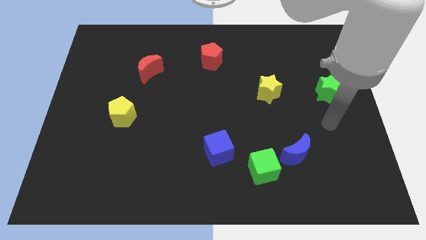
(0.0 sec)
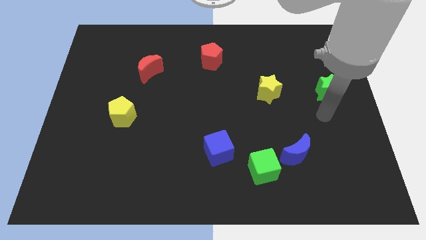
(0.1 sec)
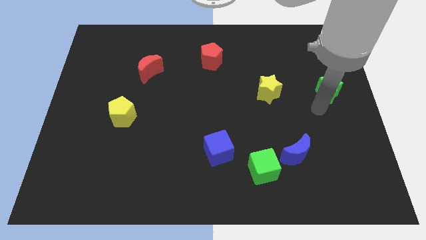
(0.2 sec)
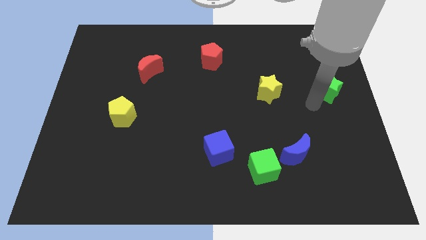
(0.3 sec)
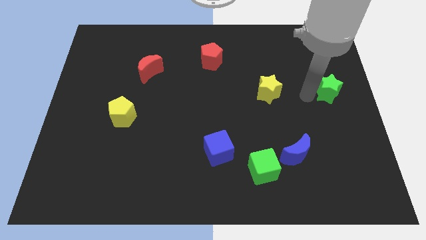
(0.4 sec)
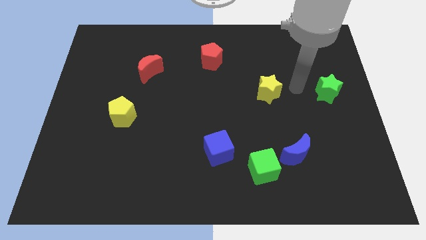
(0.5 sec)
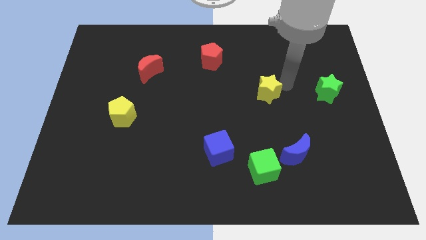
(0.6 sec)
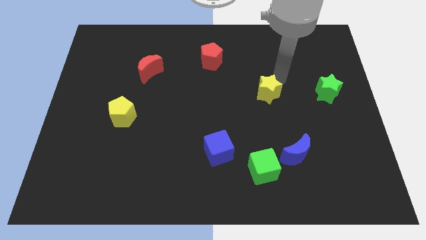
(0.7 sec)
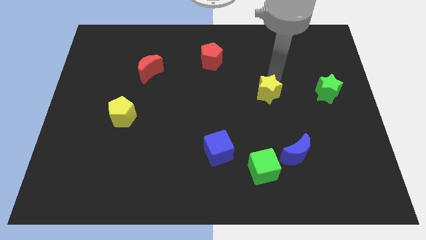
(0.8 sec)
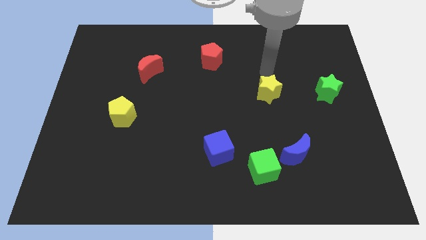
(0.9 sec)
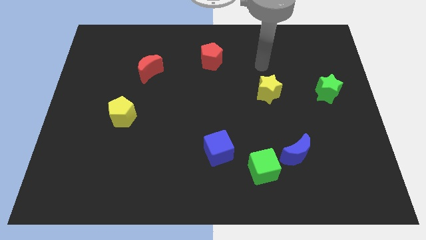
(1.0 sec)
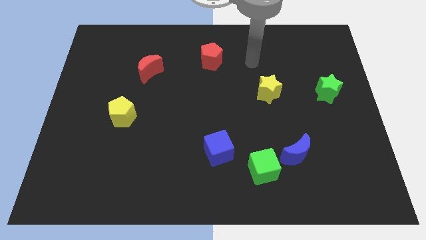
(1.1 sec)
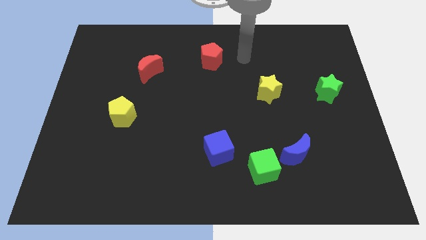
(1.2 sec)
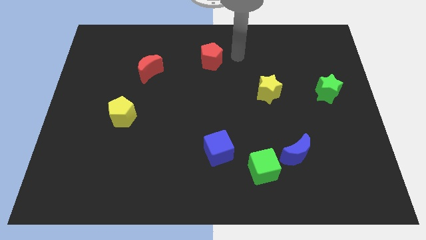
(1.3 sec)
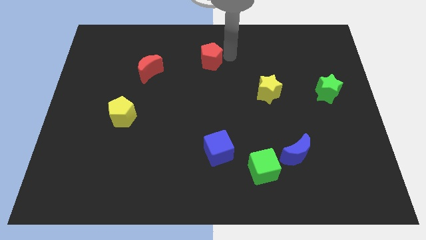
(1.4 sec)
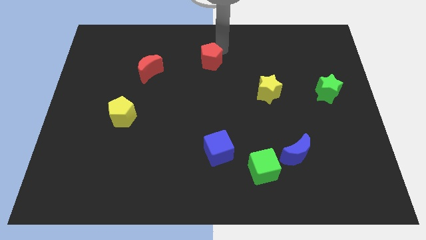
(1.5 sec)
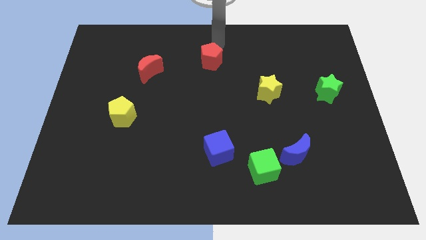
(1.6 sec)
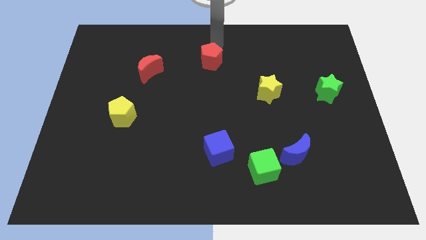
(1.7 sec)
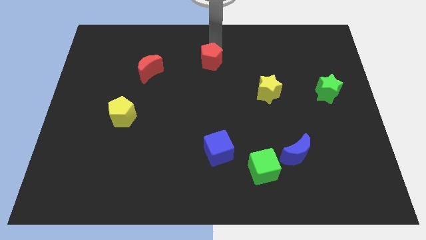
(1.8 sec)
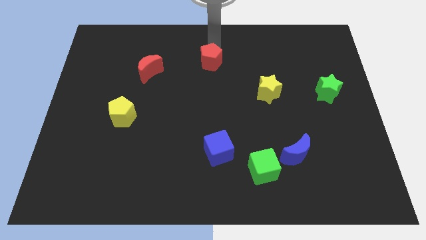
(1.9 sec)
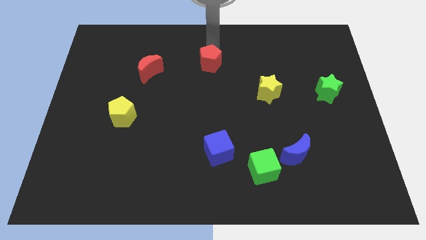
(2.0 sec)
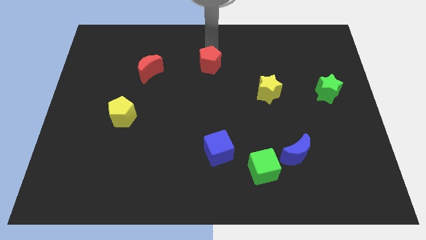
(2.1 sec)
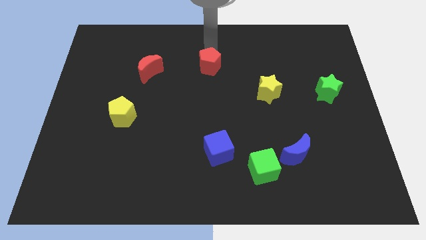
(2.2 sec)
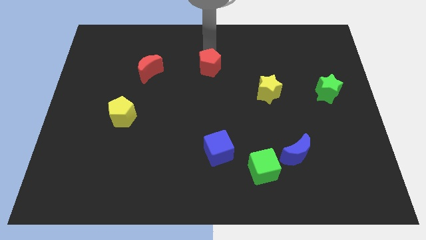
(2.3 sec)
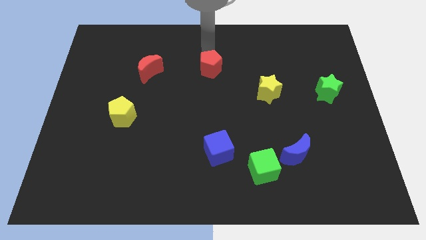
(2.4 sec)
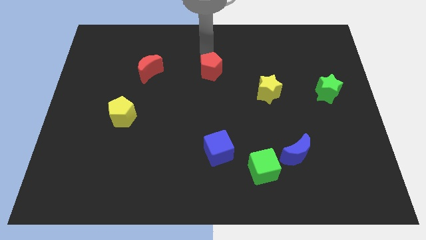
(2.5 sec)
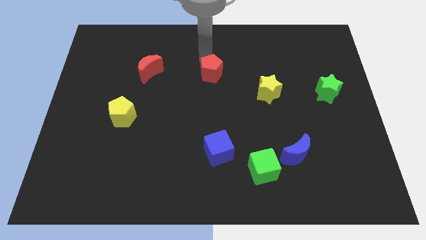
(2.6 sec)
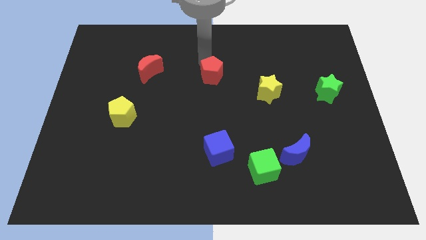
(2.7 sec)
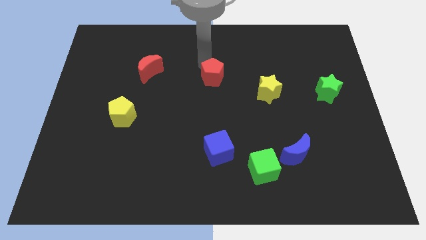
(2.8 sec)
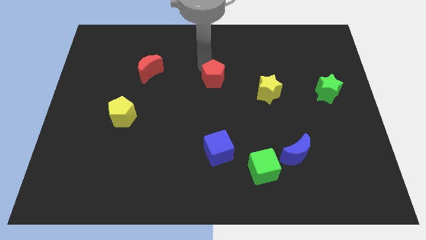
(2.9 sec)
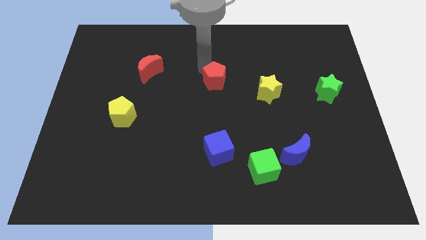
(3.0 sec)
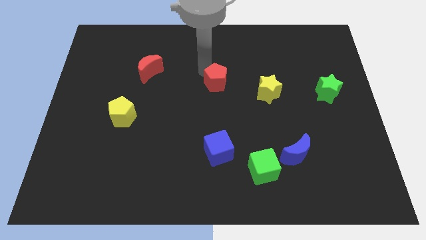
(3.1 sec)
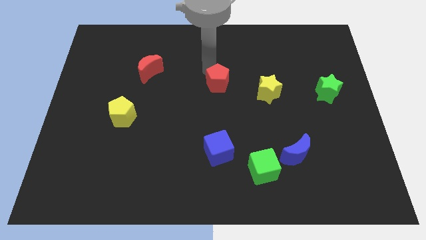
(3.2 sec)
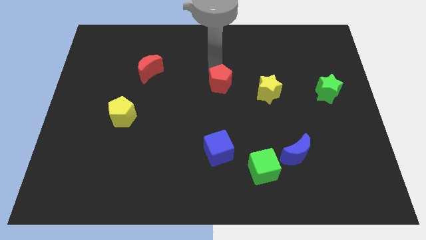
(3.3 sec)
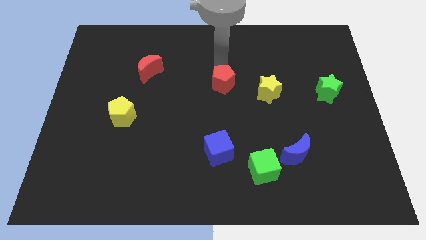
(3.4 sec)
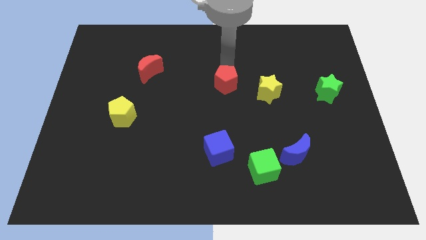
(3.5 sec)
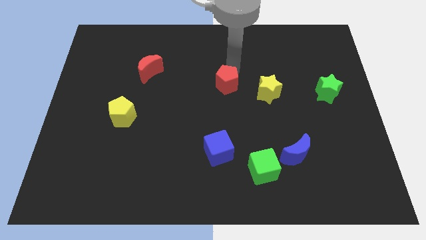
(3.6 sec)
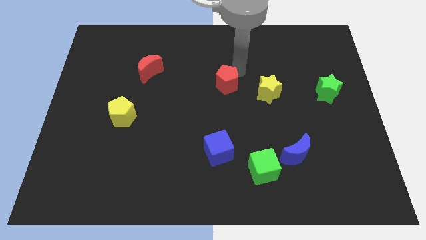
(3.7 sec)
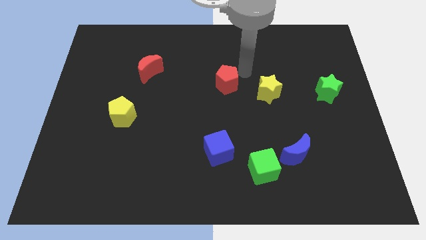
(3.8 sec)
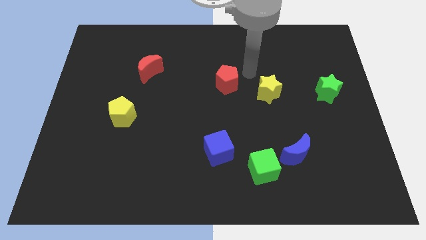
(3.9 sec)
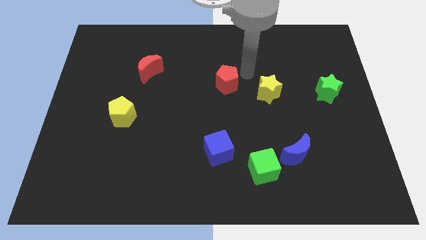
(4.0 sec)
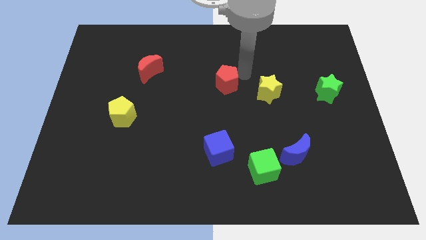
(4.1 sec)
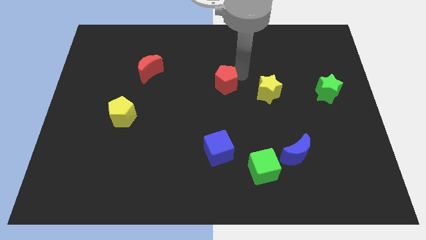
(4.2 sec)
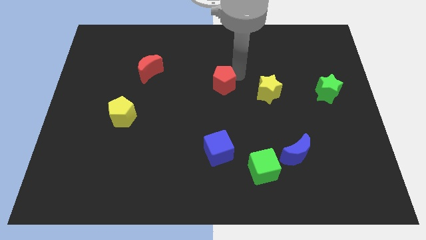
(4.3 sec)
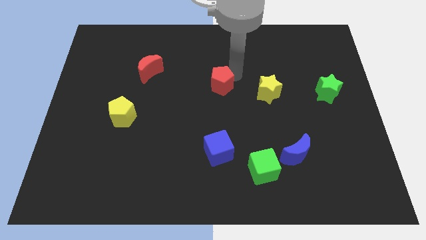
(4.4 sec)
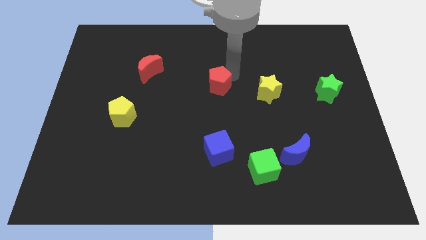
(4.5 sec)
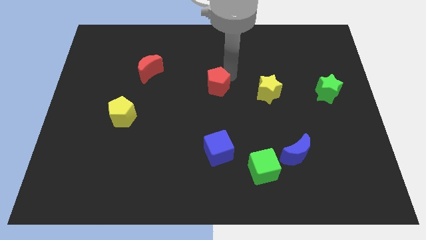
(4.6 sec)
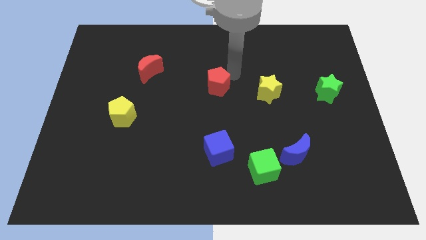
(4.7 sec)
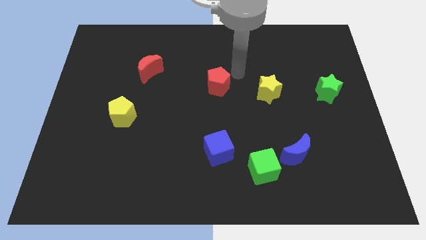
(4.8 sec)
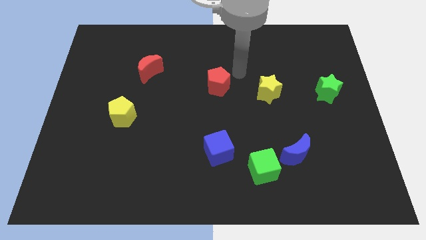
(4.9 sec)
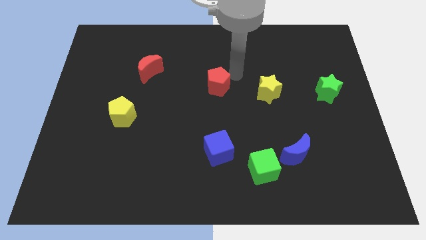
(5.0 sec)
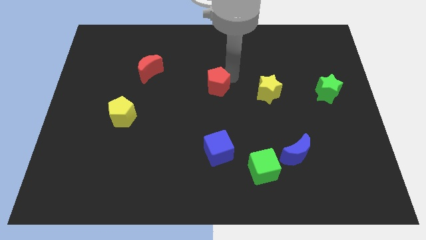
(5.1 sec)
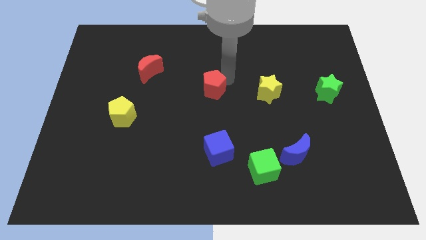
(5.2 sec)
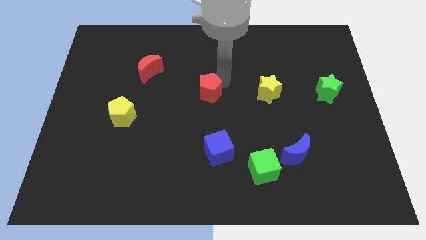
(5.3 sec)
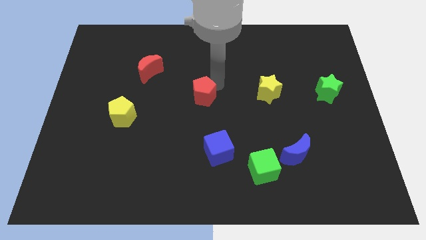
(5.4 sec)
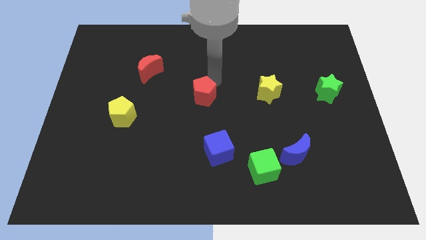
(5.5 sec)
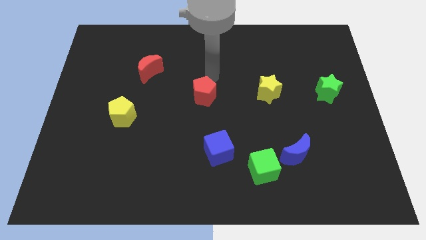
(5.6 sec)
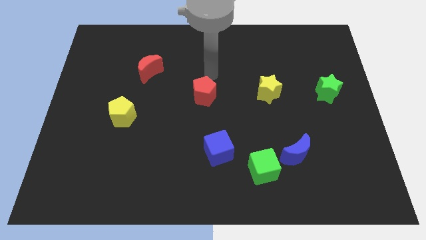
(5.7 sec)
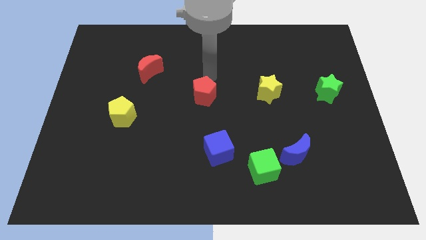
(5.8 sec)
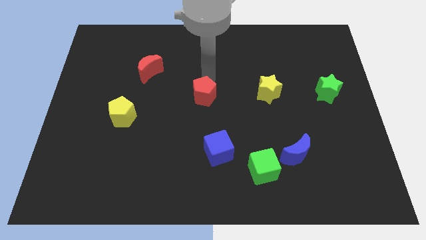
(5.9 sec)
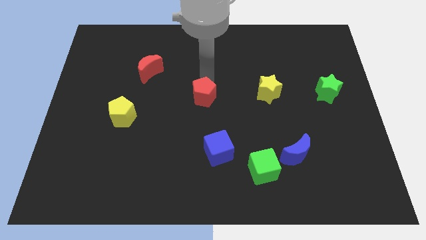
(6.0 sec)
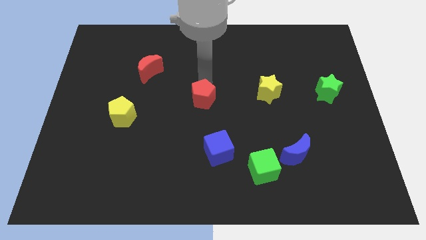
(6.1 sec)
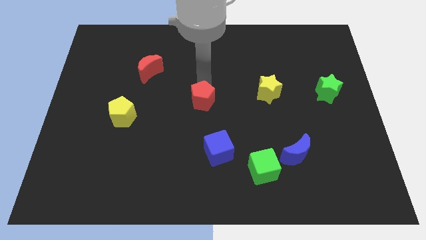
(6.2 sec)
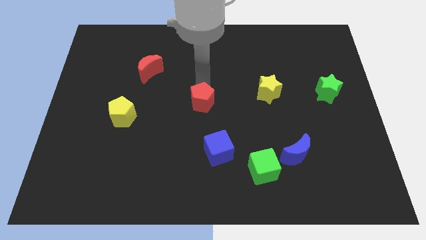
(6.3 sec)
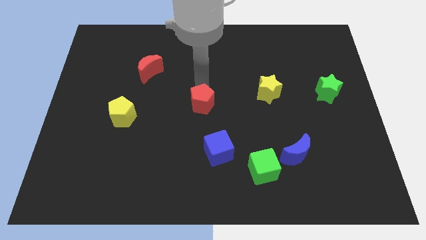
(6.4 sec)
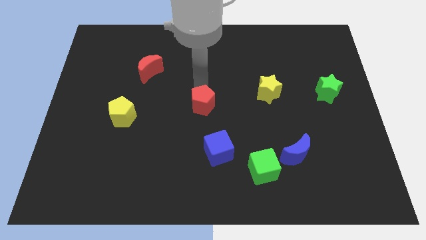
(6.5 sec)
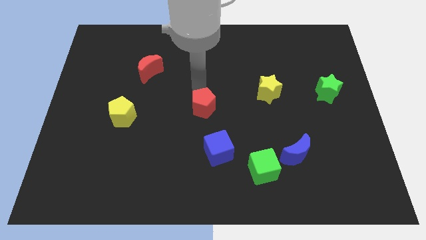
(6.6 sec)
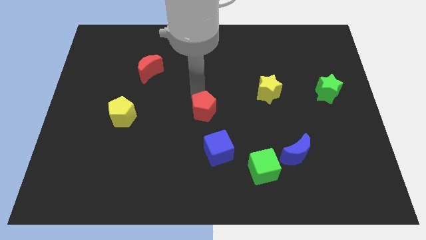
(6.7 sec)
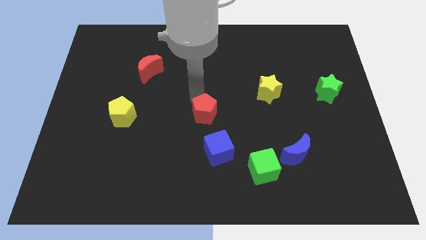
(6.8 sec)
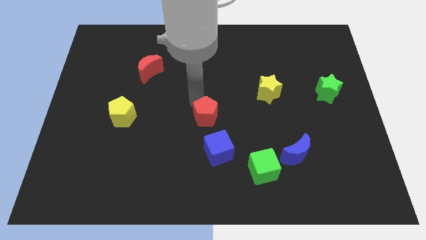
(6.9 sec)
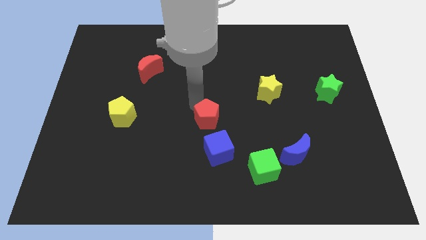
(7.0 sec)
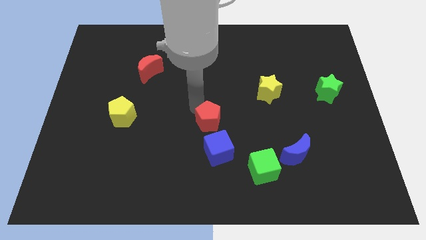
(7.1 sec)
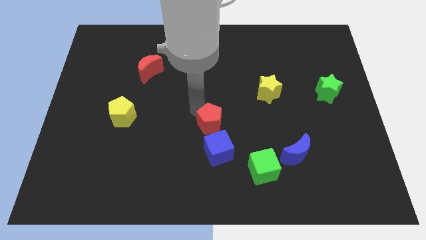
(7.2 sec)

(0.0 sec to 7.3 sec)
move the red pentagon down

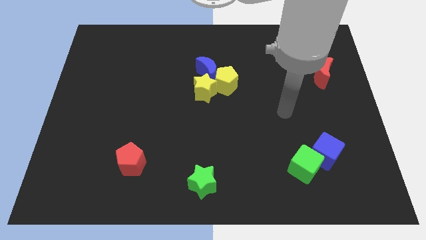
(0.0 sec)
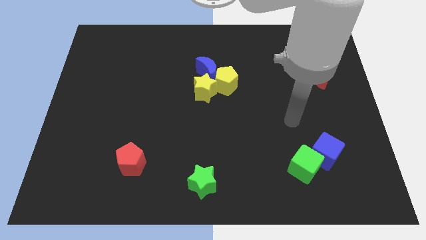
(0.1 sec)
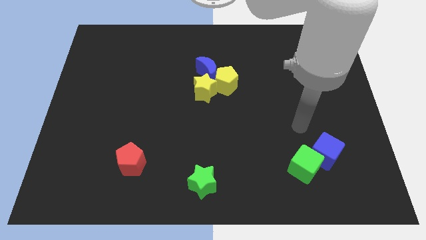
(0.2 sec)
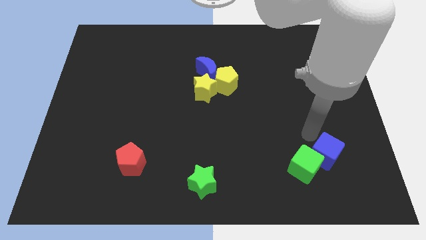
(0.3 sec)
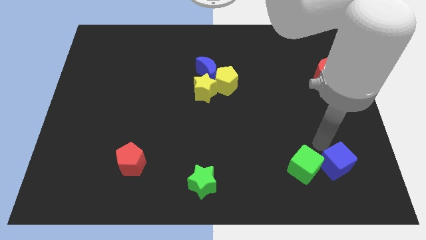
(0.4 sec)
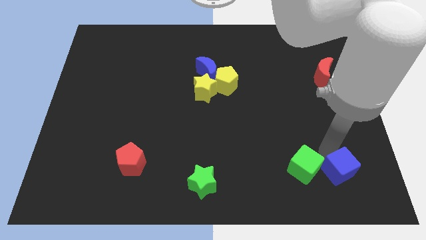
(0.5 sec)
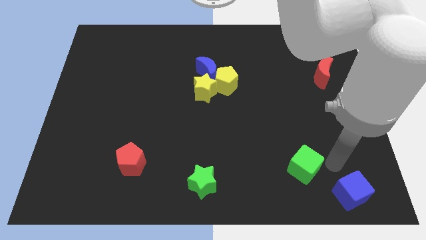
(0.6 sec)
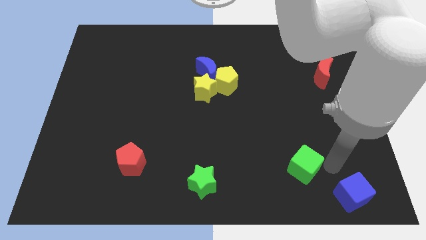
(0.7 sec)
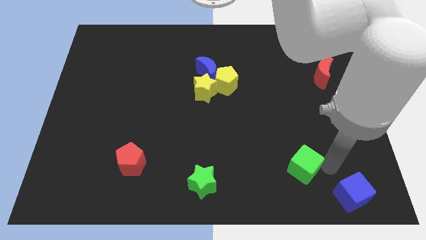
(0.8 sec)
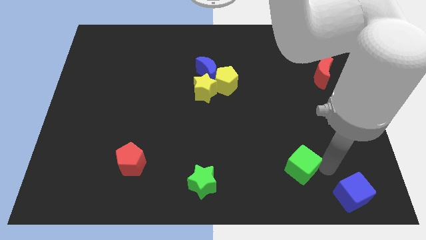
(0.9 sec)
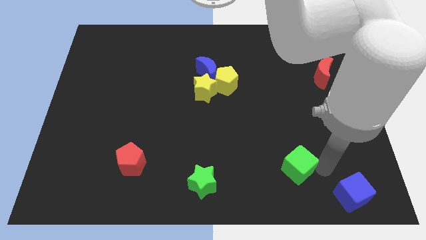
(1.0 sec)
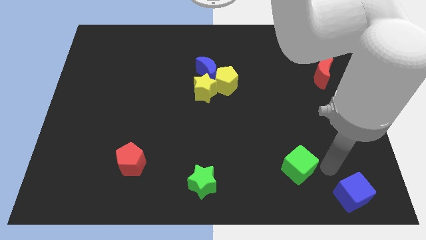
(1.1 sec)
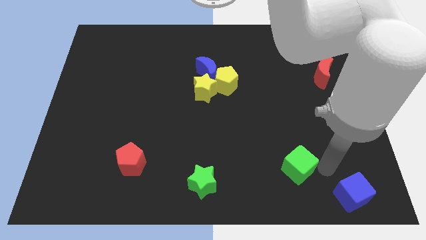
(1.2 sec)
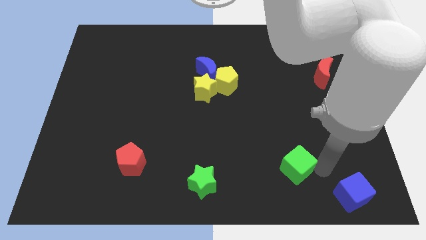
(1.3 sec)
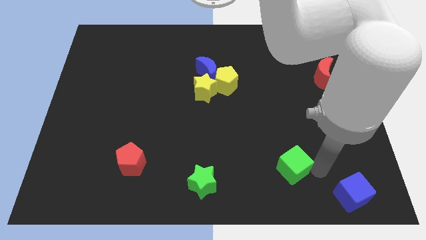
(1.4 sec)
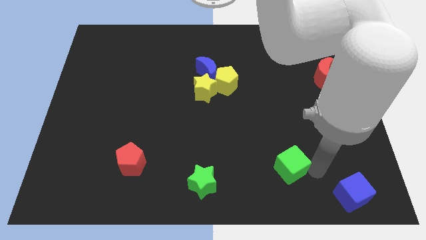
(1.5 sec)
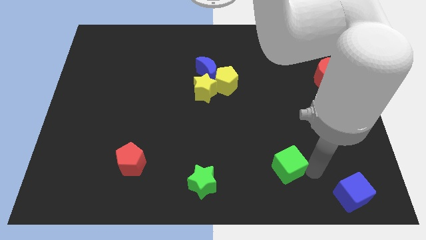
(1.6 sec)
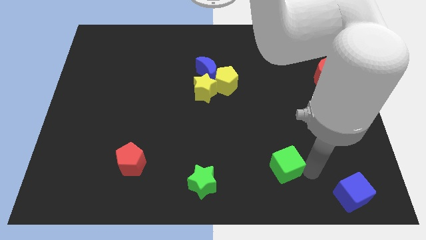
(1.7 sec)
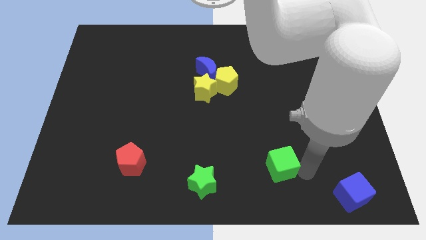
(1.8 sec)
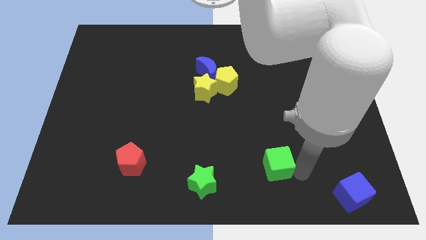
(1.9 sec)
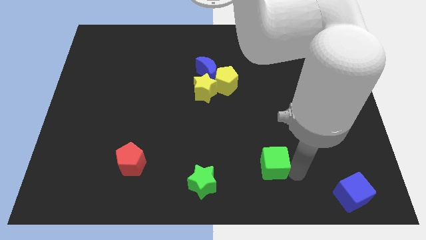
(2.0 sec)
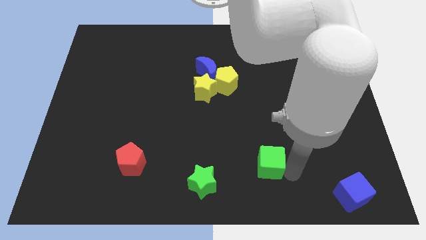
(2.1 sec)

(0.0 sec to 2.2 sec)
slightly slide the green cube left
